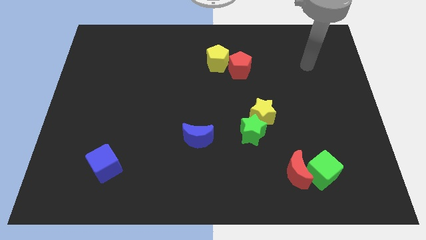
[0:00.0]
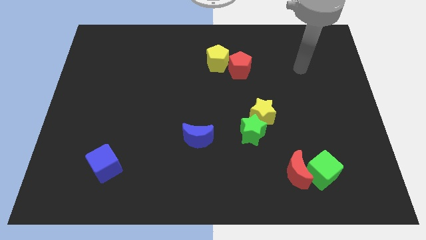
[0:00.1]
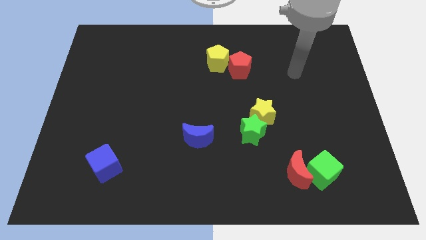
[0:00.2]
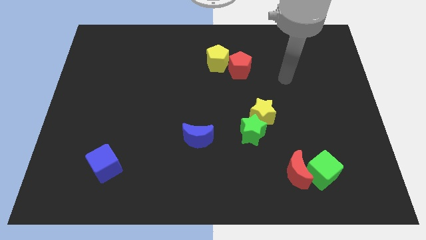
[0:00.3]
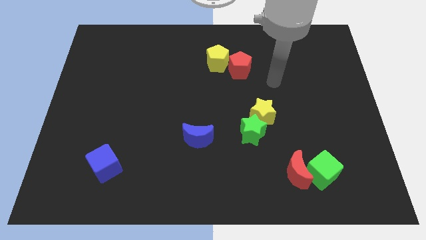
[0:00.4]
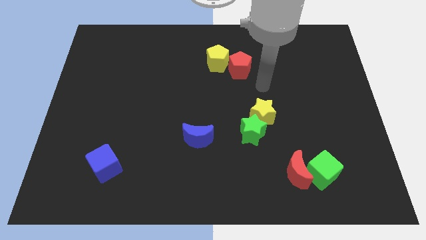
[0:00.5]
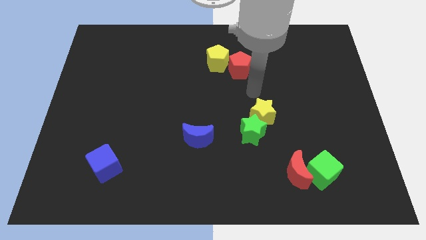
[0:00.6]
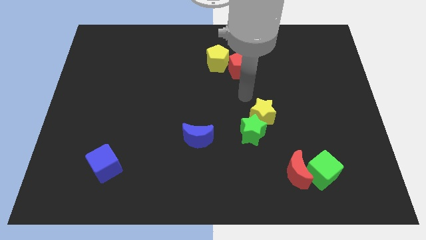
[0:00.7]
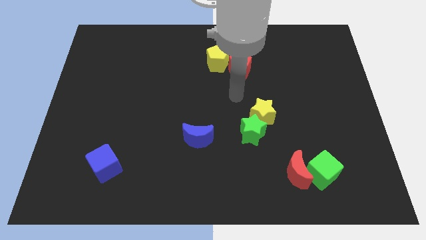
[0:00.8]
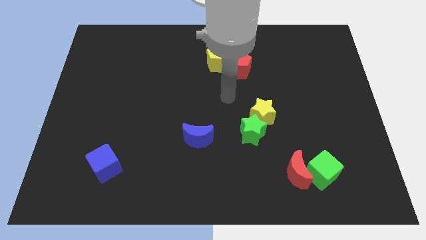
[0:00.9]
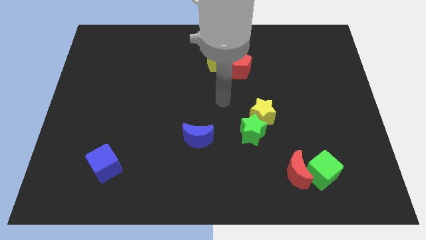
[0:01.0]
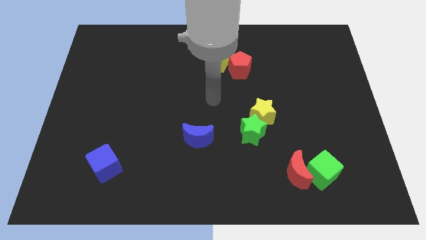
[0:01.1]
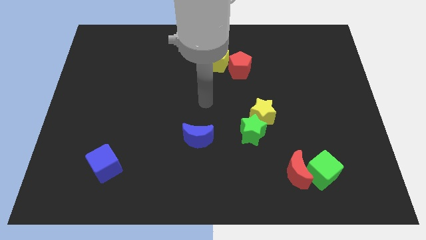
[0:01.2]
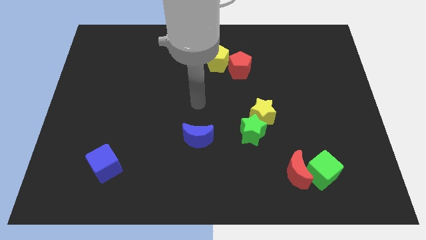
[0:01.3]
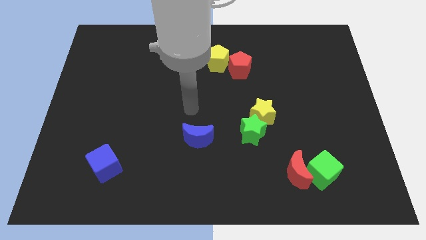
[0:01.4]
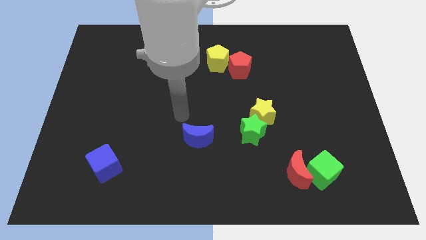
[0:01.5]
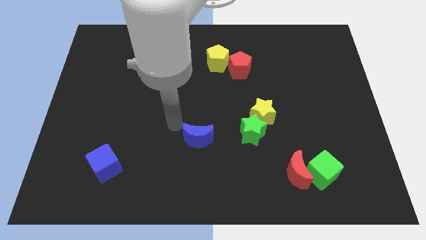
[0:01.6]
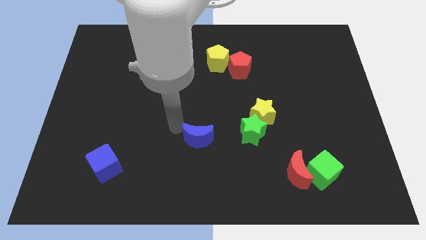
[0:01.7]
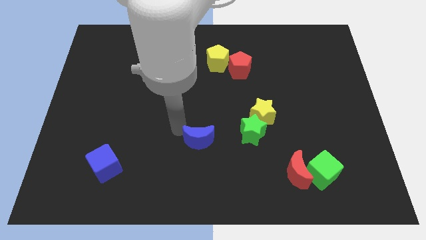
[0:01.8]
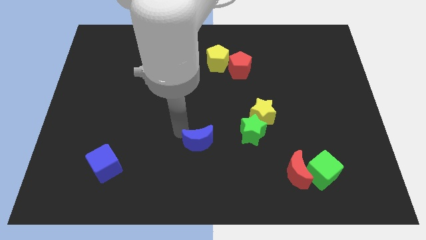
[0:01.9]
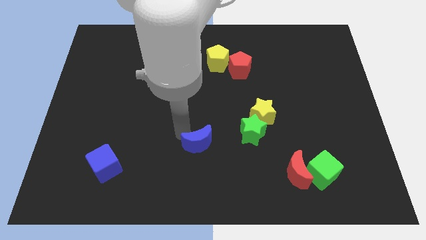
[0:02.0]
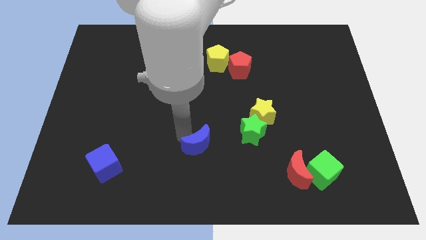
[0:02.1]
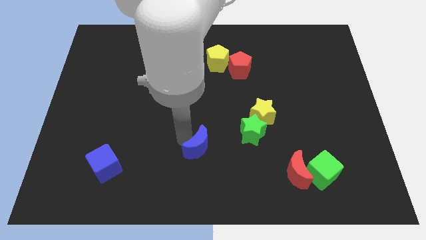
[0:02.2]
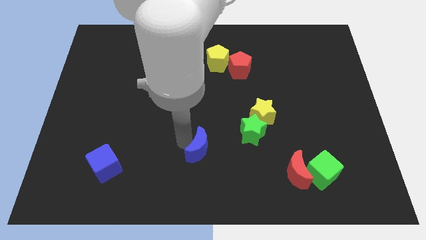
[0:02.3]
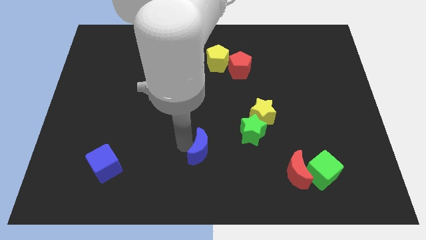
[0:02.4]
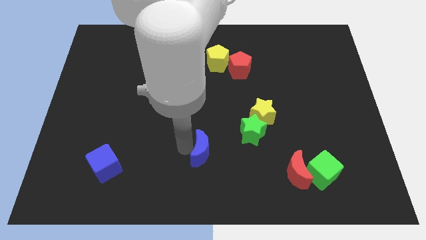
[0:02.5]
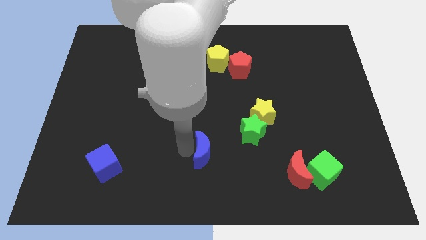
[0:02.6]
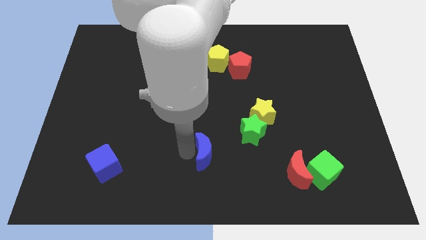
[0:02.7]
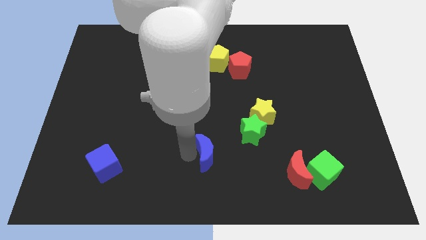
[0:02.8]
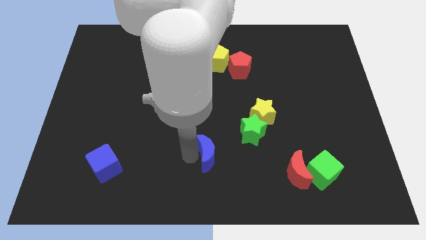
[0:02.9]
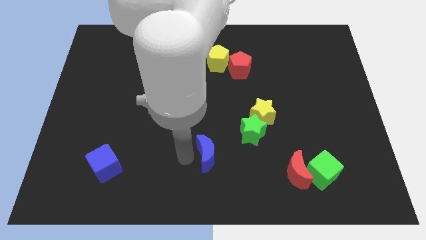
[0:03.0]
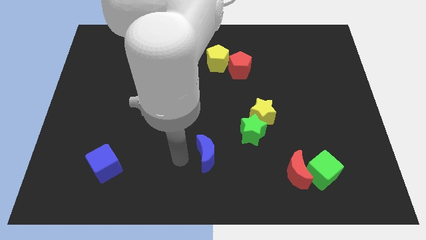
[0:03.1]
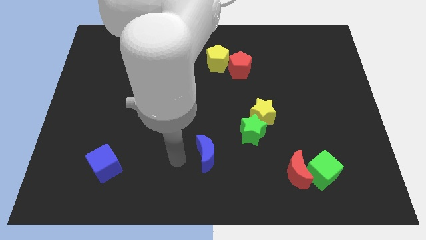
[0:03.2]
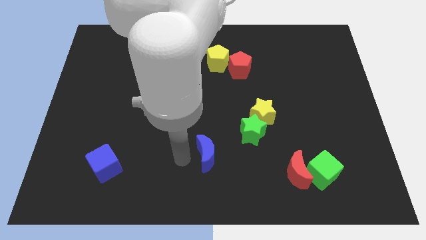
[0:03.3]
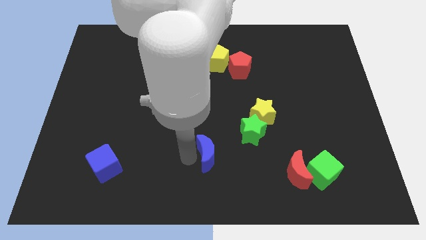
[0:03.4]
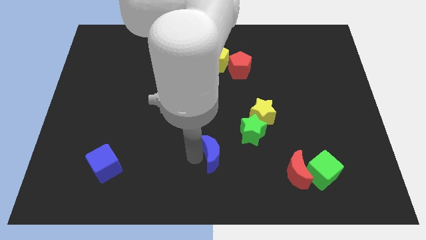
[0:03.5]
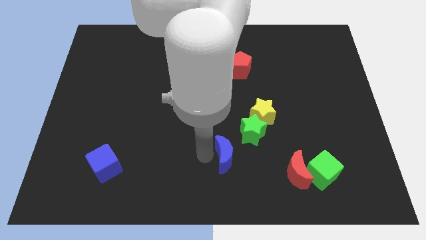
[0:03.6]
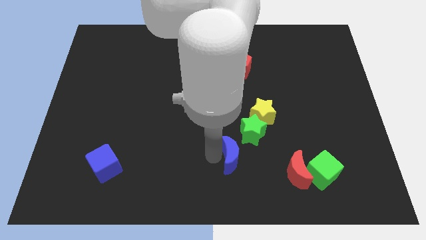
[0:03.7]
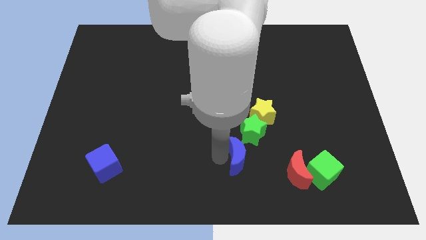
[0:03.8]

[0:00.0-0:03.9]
move the blue moon right a bit

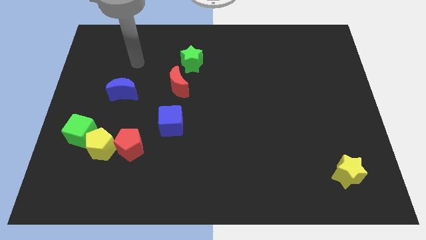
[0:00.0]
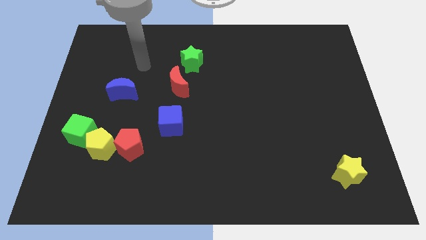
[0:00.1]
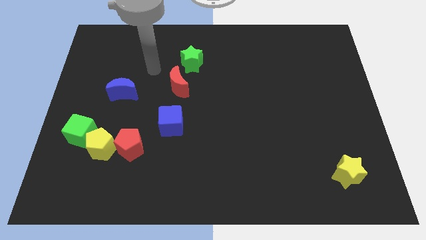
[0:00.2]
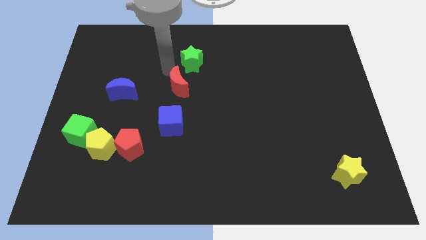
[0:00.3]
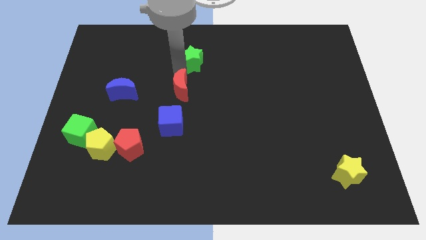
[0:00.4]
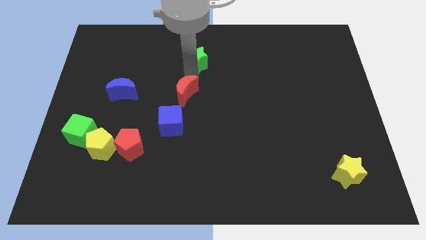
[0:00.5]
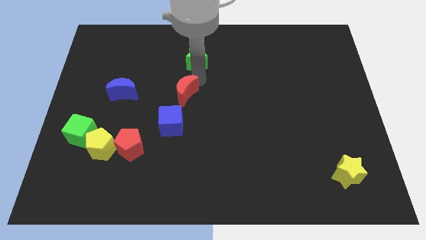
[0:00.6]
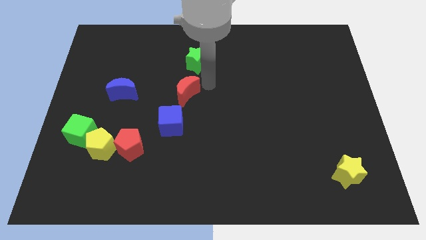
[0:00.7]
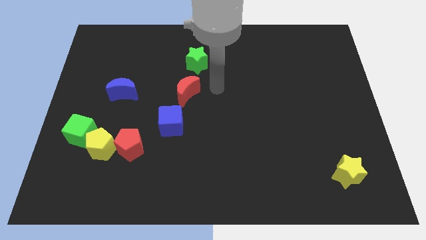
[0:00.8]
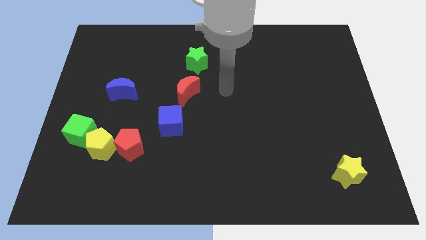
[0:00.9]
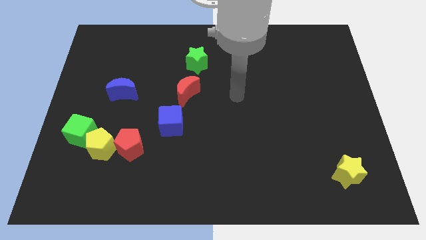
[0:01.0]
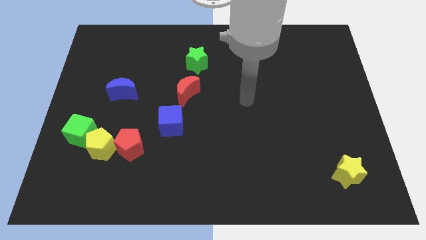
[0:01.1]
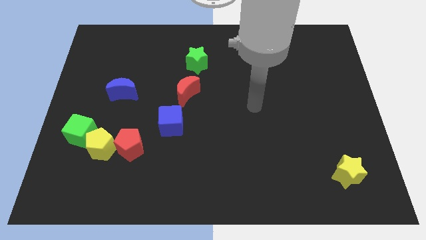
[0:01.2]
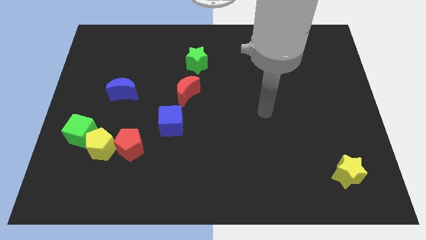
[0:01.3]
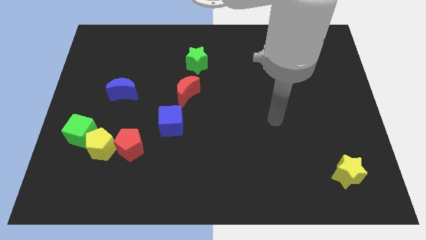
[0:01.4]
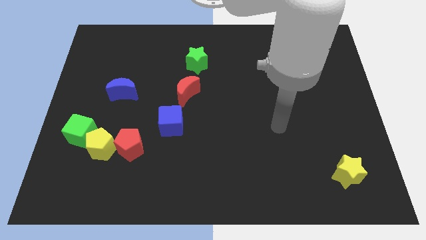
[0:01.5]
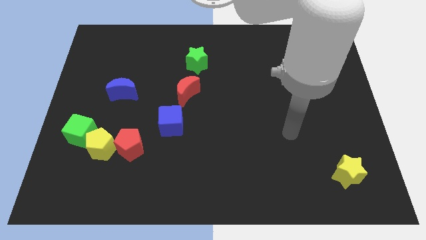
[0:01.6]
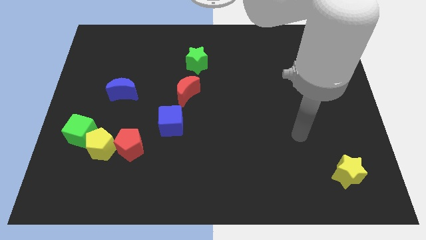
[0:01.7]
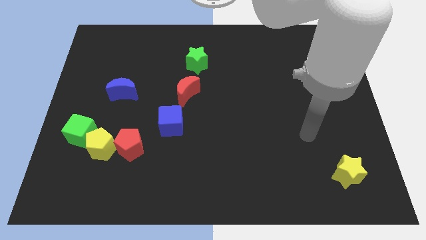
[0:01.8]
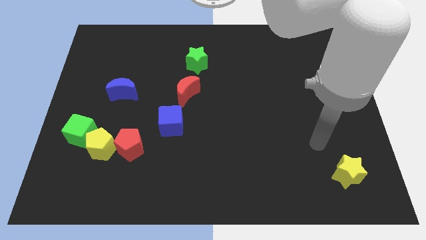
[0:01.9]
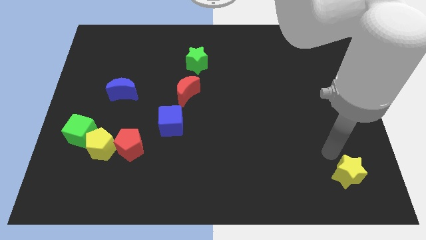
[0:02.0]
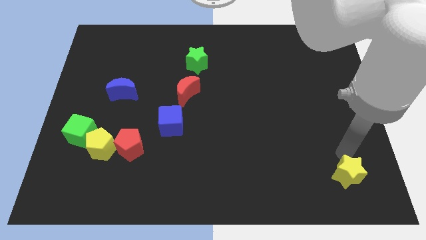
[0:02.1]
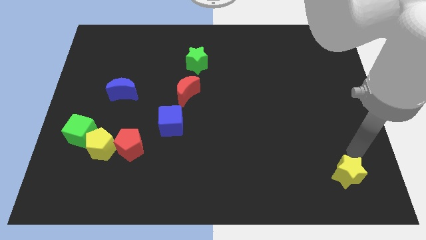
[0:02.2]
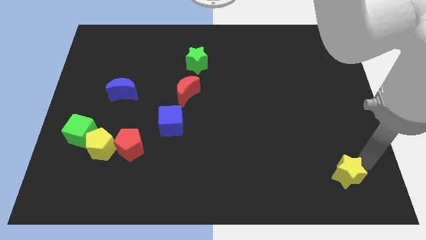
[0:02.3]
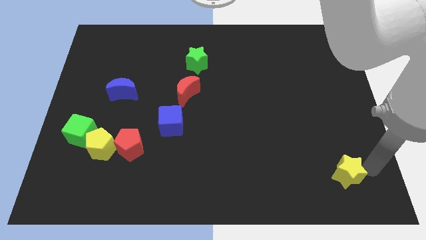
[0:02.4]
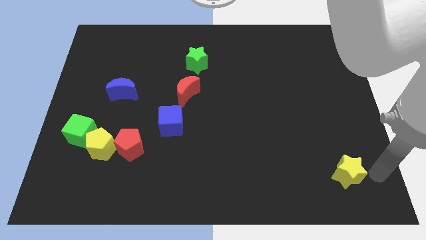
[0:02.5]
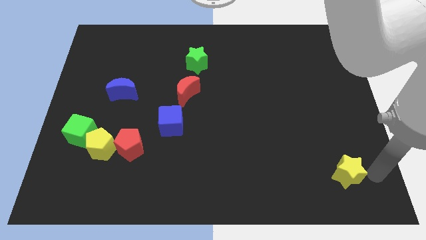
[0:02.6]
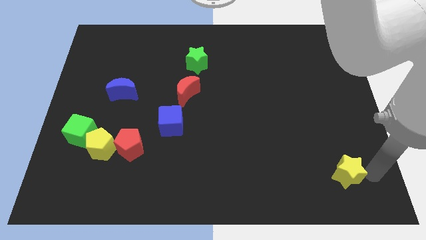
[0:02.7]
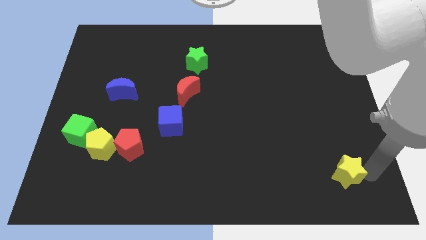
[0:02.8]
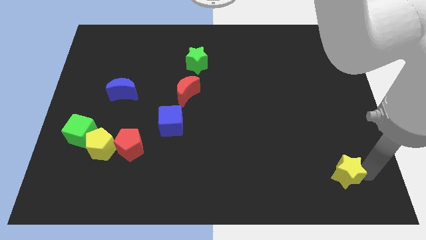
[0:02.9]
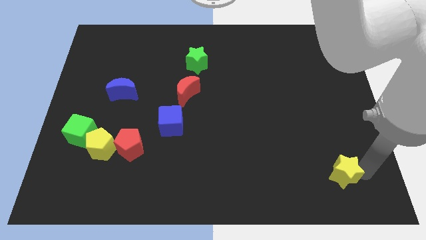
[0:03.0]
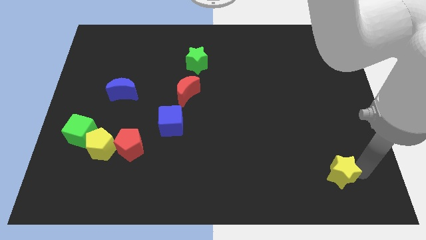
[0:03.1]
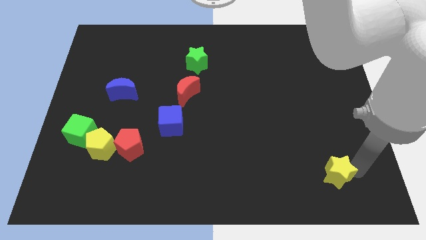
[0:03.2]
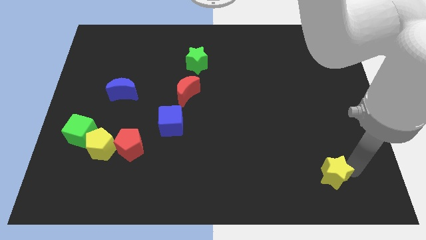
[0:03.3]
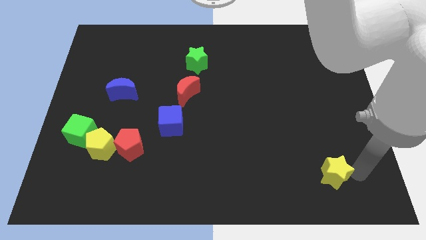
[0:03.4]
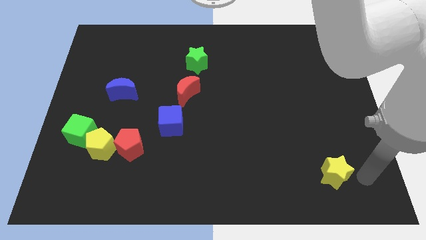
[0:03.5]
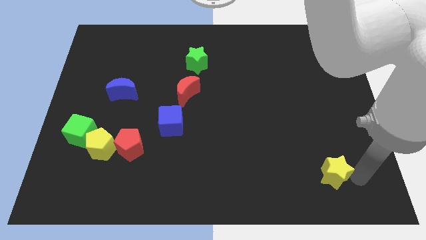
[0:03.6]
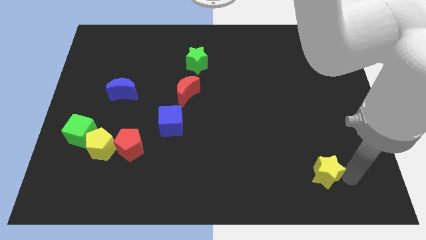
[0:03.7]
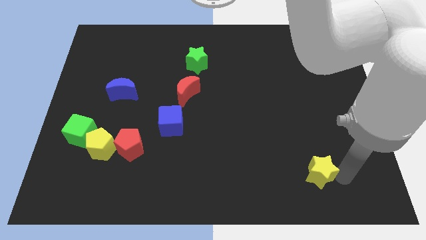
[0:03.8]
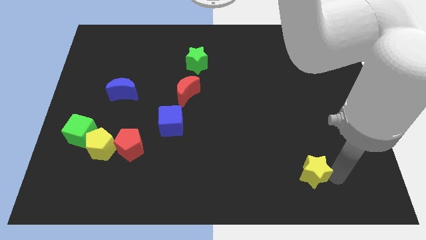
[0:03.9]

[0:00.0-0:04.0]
move the yellow star to the left somewhat

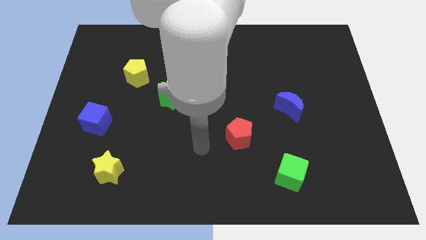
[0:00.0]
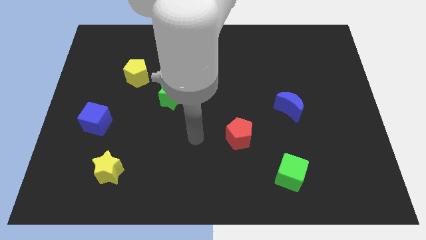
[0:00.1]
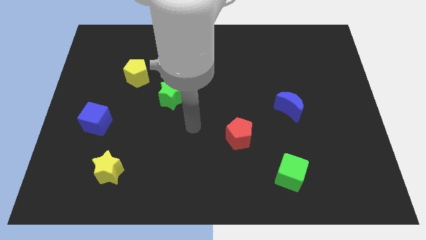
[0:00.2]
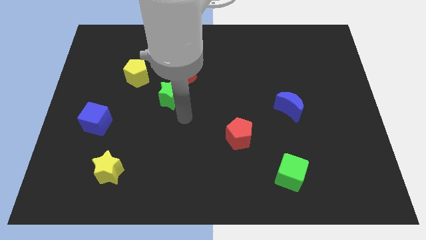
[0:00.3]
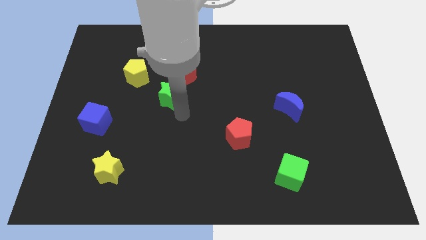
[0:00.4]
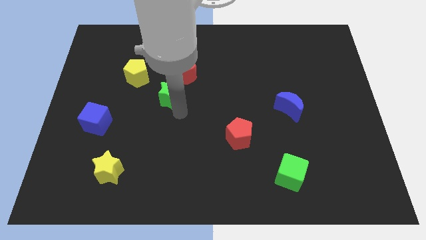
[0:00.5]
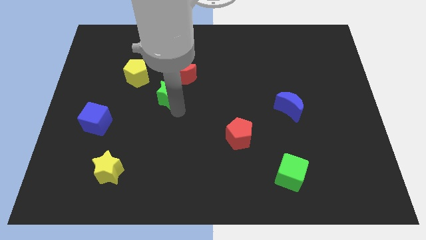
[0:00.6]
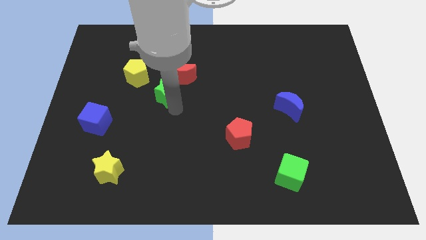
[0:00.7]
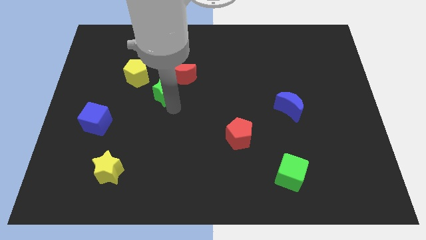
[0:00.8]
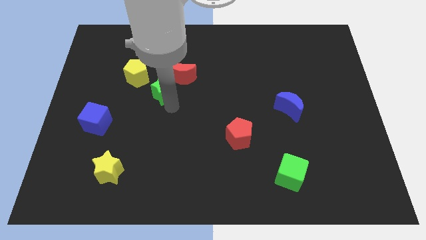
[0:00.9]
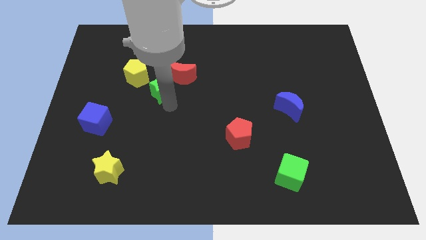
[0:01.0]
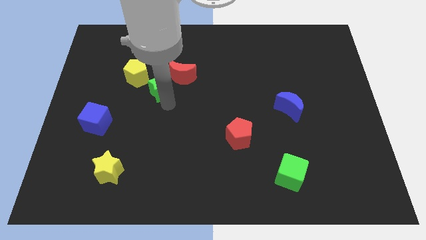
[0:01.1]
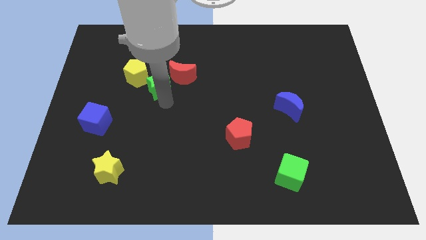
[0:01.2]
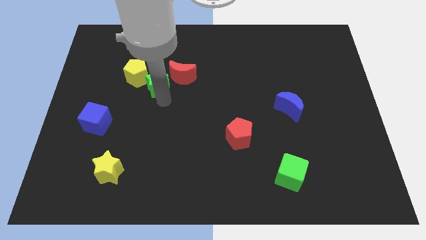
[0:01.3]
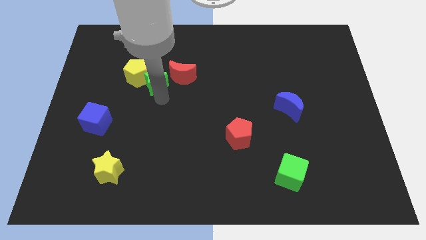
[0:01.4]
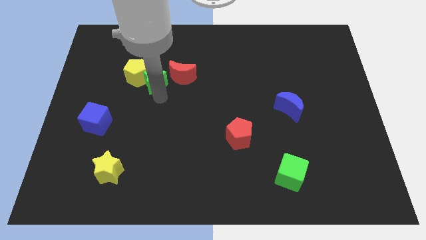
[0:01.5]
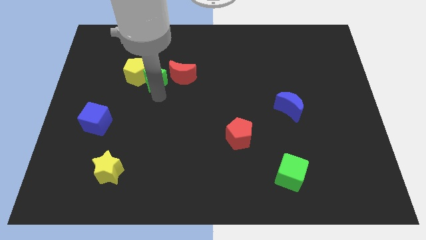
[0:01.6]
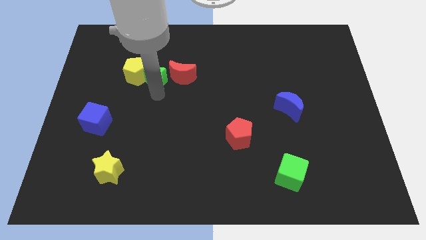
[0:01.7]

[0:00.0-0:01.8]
push the green star a little upwards and then left
